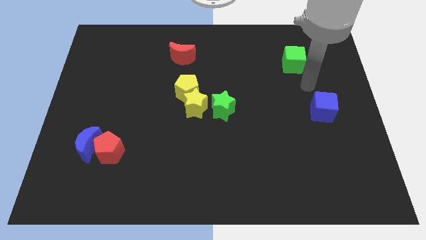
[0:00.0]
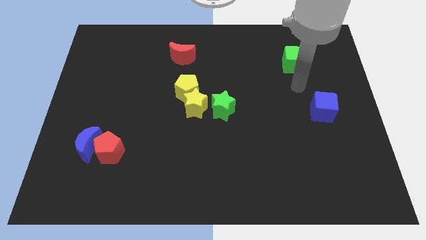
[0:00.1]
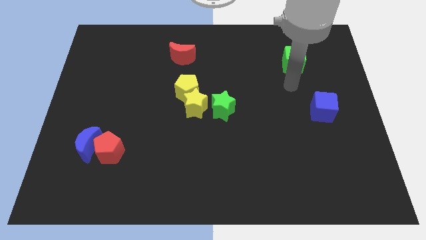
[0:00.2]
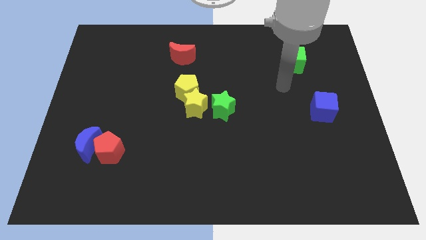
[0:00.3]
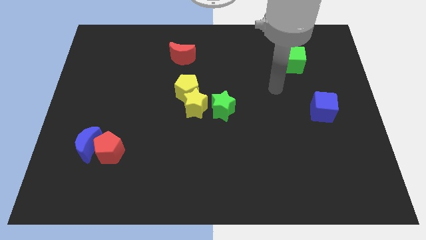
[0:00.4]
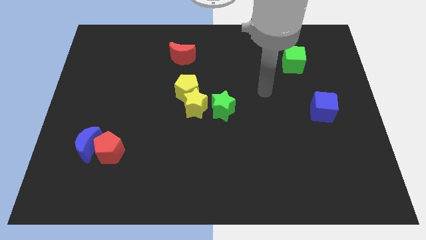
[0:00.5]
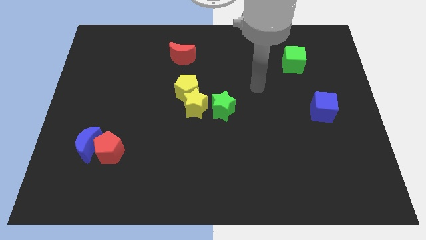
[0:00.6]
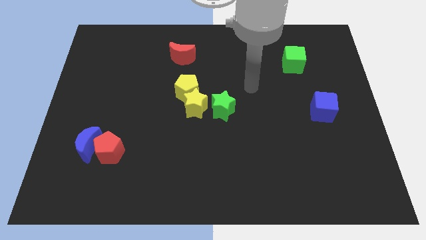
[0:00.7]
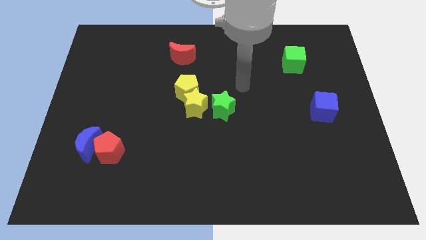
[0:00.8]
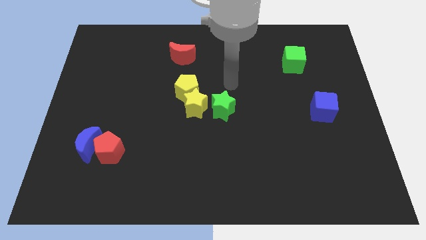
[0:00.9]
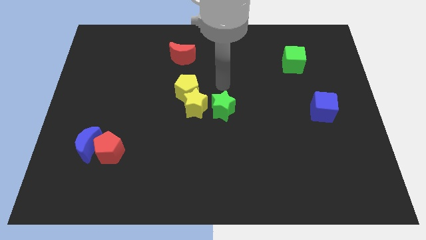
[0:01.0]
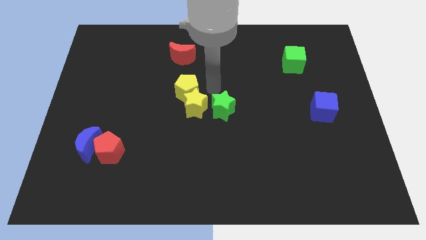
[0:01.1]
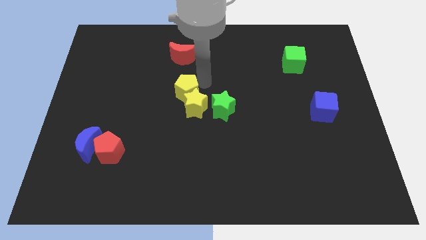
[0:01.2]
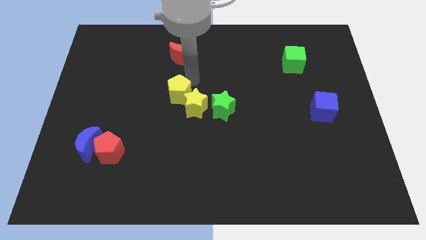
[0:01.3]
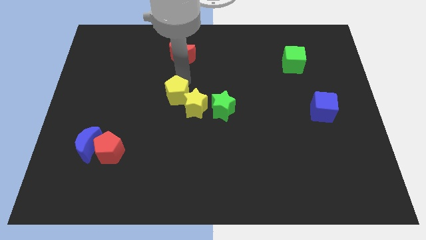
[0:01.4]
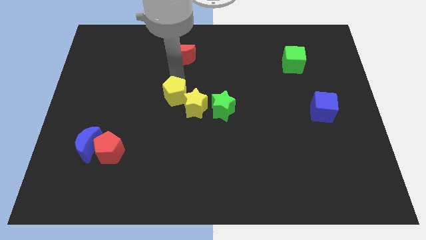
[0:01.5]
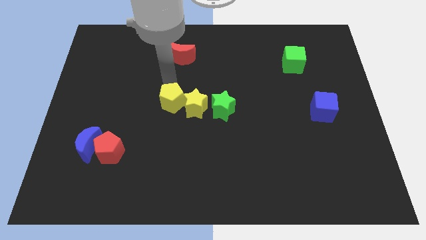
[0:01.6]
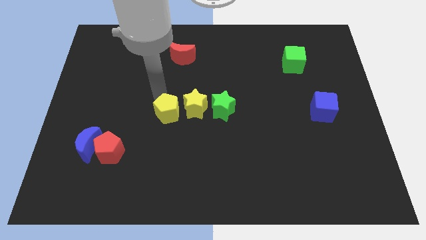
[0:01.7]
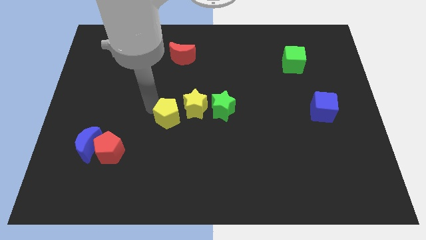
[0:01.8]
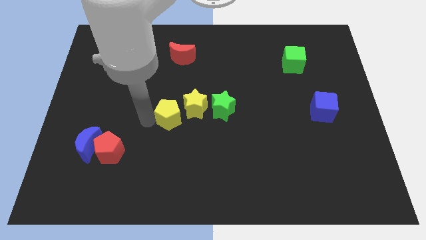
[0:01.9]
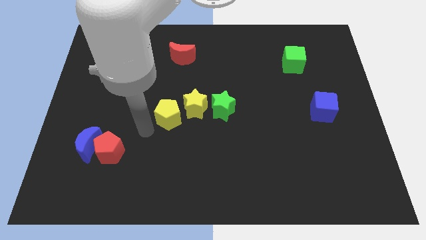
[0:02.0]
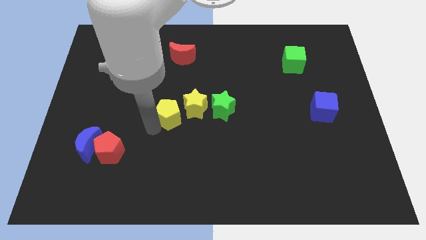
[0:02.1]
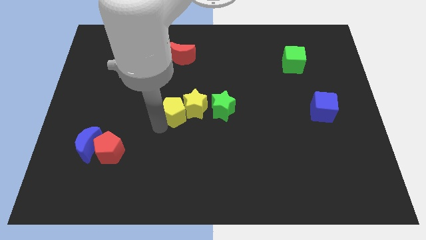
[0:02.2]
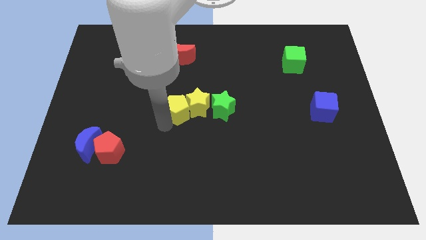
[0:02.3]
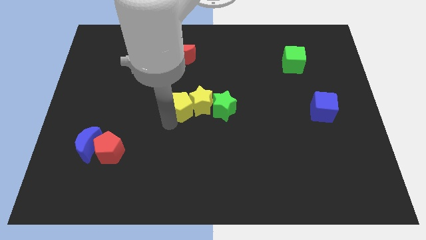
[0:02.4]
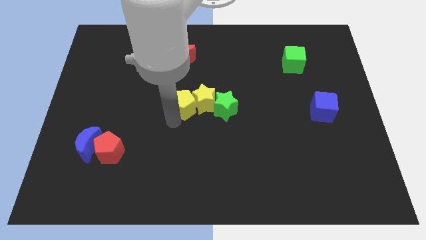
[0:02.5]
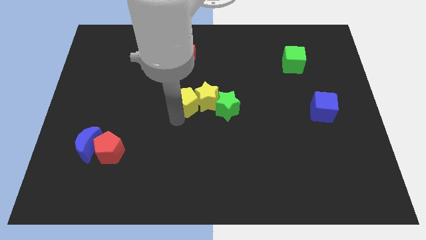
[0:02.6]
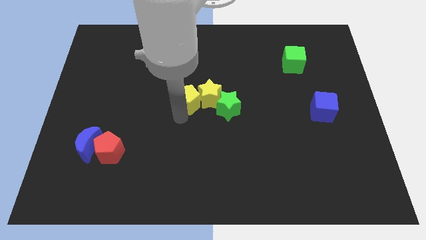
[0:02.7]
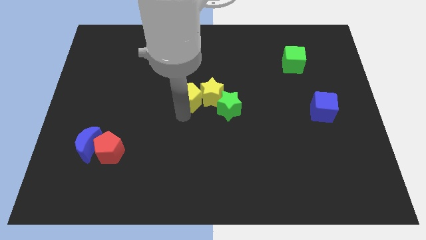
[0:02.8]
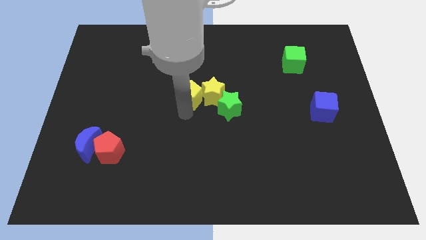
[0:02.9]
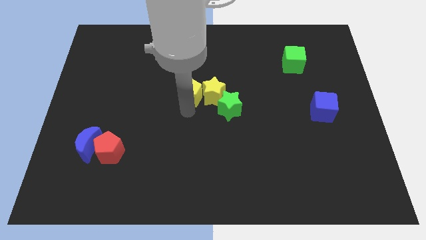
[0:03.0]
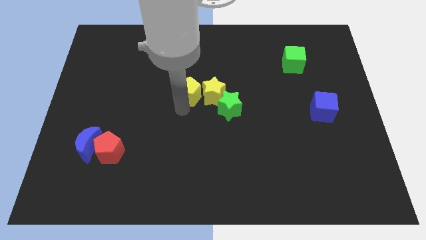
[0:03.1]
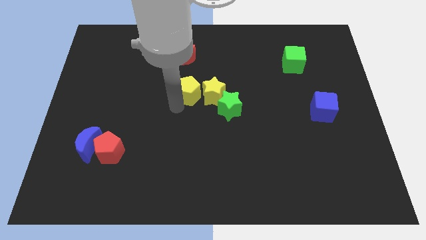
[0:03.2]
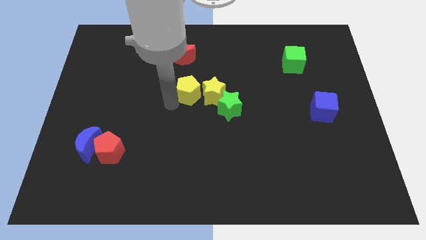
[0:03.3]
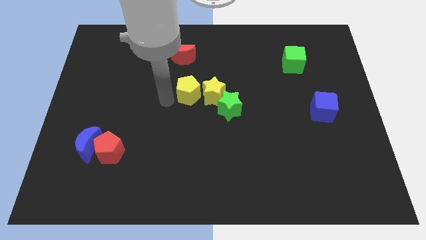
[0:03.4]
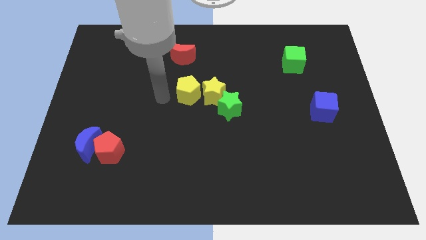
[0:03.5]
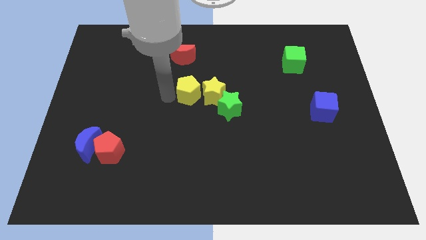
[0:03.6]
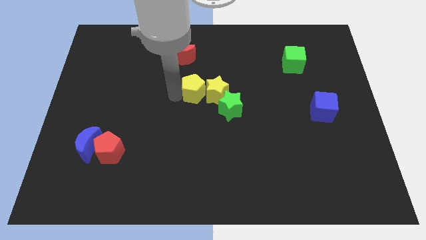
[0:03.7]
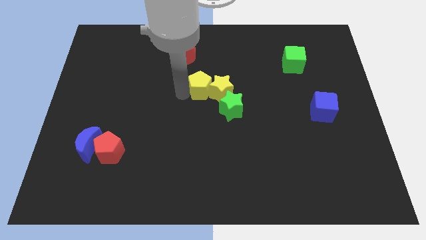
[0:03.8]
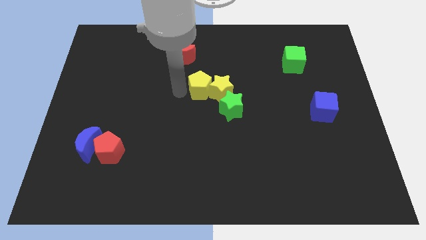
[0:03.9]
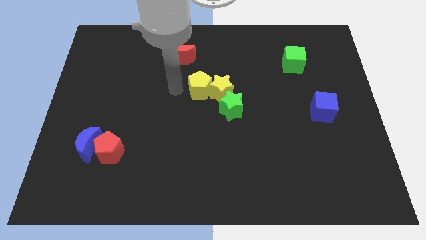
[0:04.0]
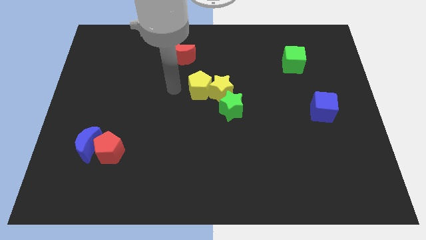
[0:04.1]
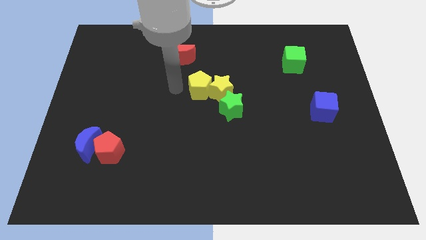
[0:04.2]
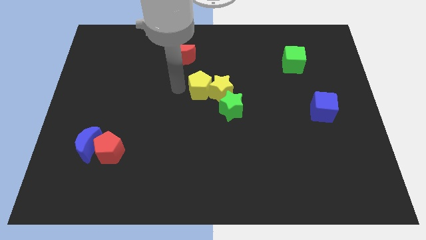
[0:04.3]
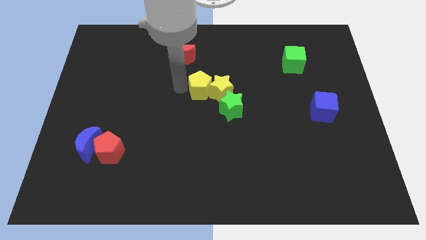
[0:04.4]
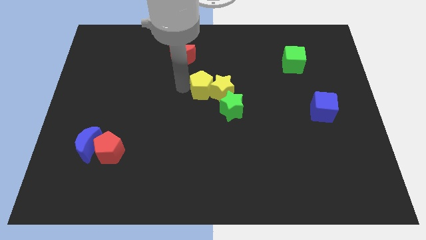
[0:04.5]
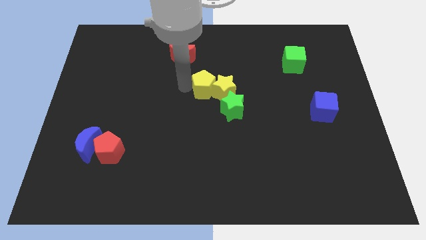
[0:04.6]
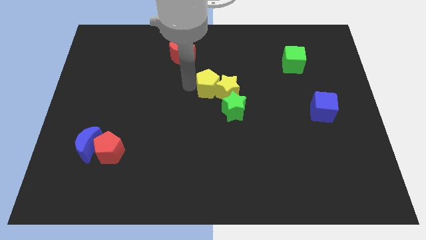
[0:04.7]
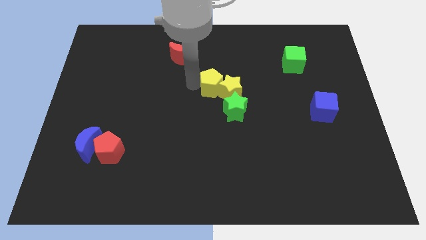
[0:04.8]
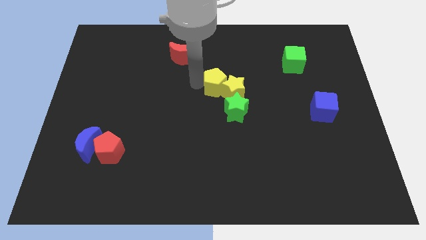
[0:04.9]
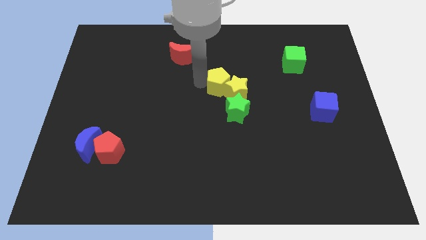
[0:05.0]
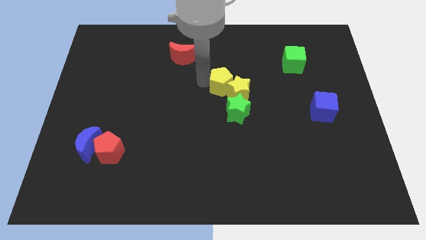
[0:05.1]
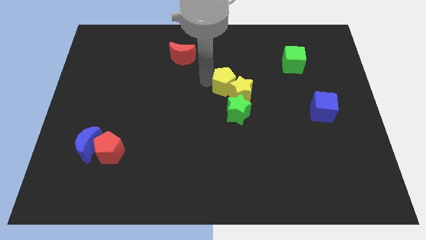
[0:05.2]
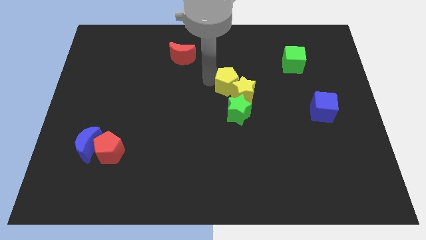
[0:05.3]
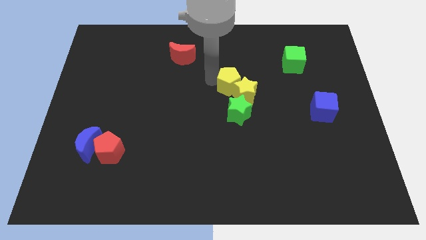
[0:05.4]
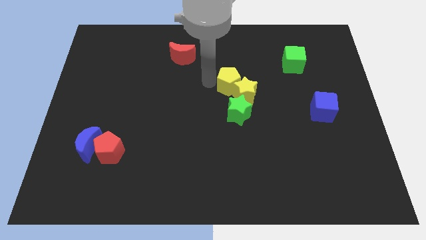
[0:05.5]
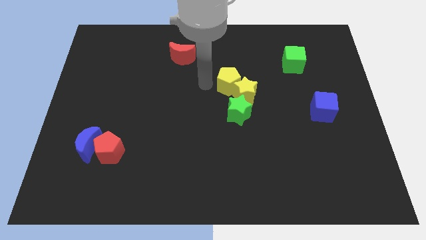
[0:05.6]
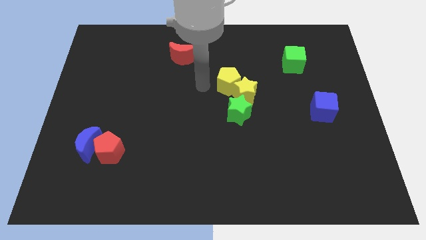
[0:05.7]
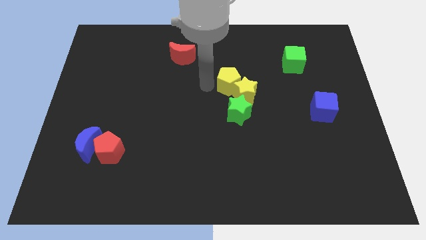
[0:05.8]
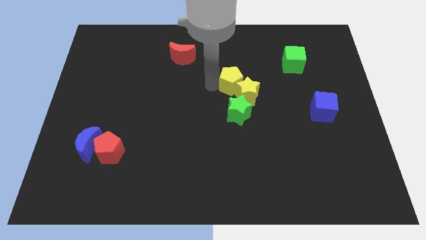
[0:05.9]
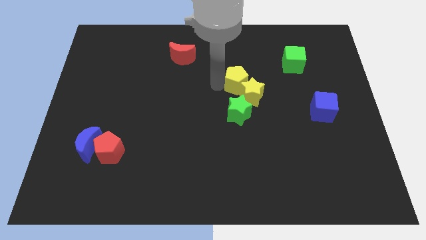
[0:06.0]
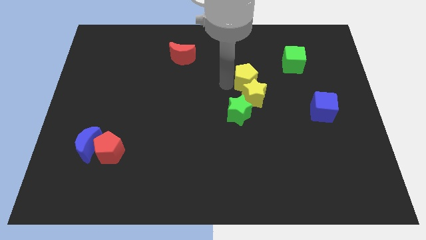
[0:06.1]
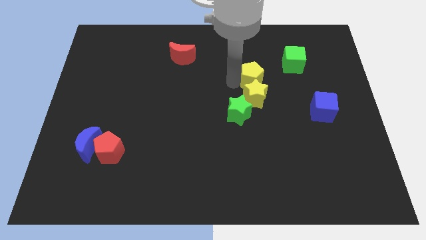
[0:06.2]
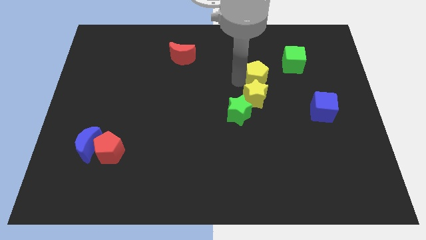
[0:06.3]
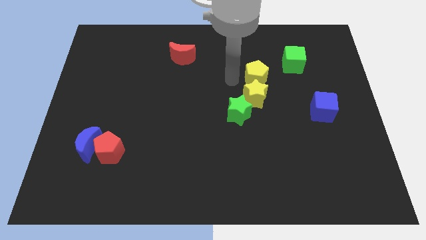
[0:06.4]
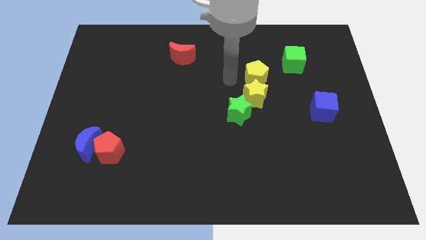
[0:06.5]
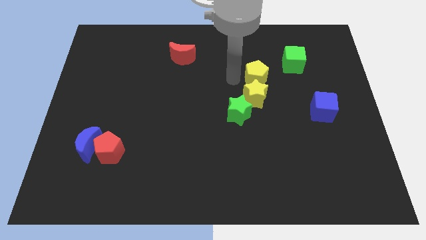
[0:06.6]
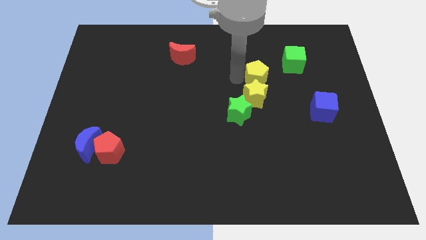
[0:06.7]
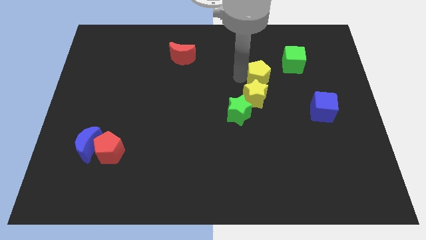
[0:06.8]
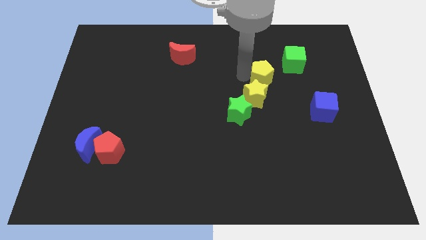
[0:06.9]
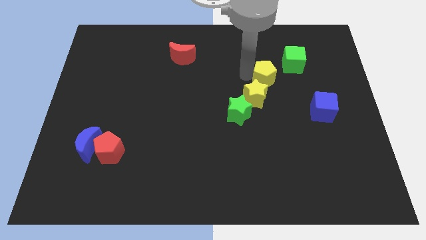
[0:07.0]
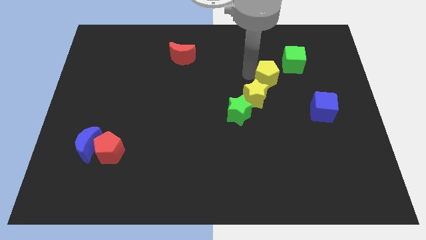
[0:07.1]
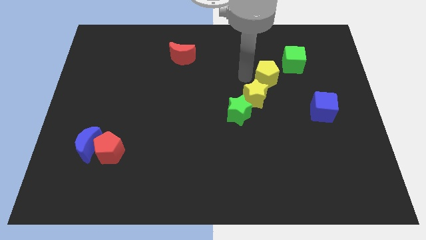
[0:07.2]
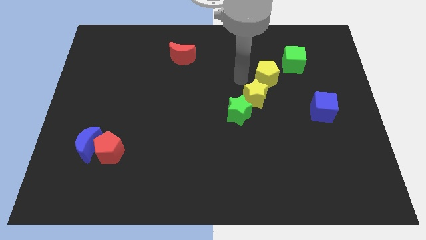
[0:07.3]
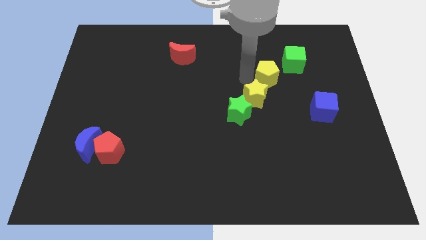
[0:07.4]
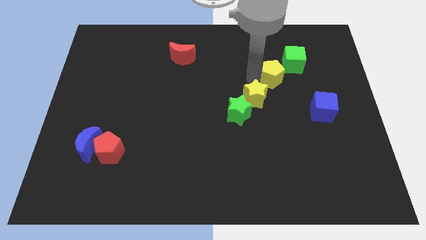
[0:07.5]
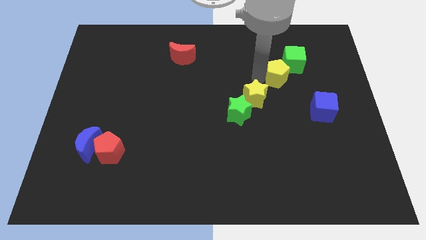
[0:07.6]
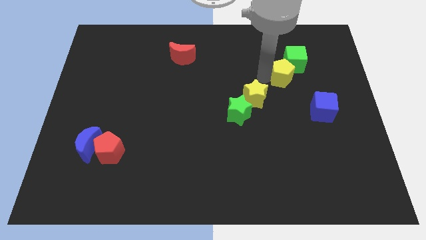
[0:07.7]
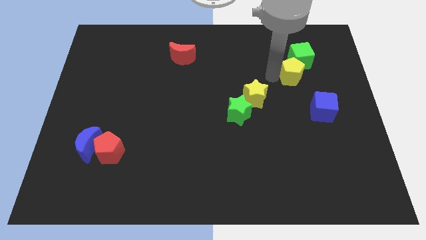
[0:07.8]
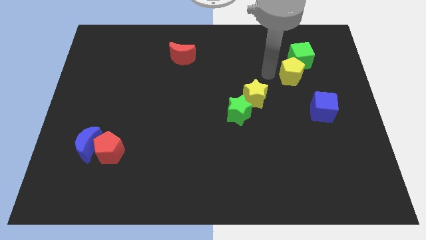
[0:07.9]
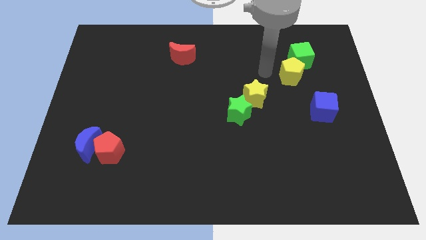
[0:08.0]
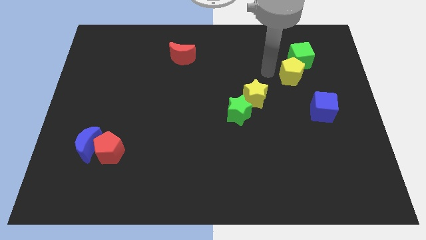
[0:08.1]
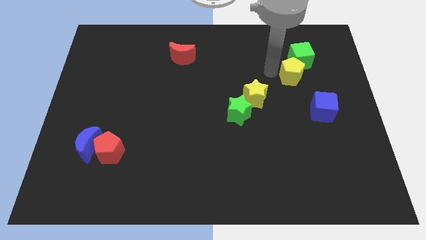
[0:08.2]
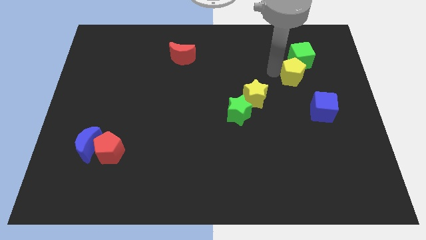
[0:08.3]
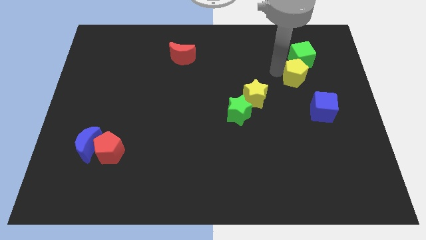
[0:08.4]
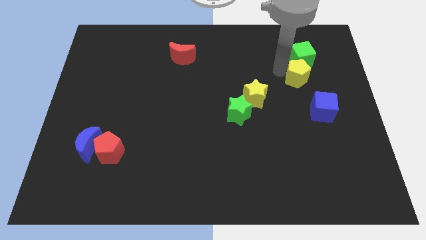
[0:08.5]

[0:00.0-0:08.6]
push the yellow pentagon to the top of the blue cube
